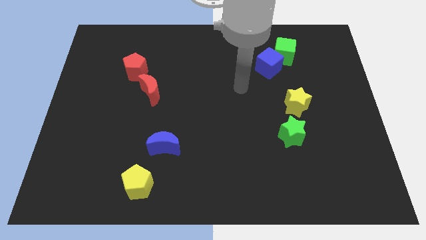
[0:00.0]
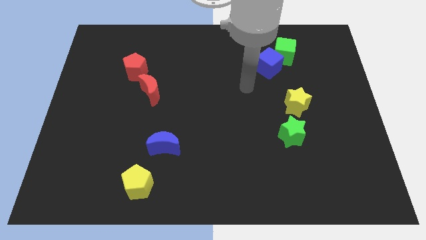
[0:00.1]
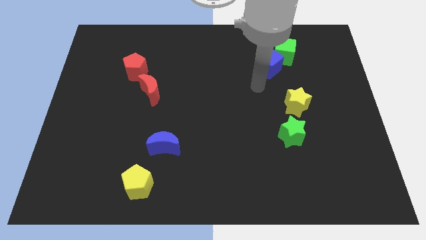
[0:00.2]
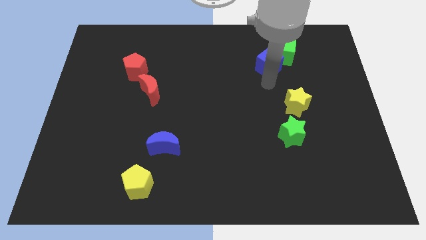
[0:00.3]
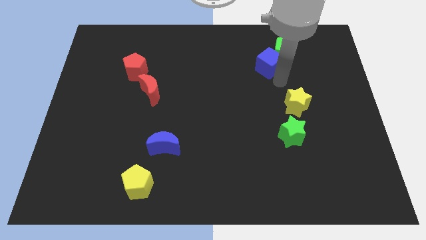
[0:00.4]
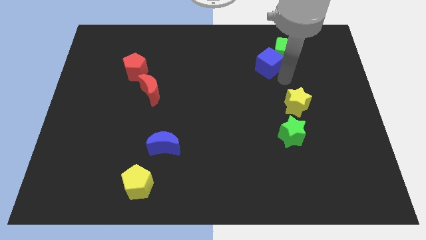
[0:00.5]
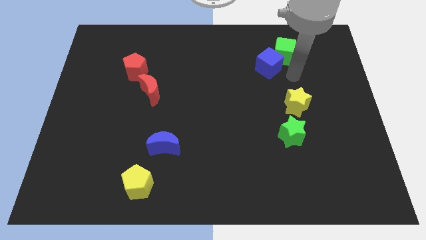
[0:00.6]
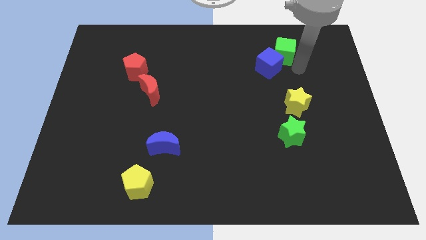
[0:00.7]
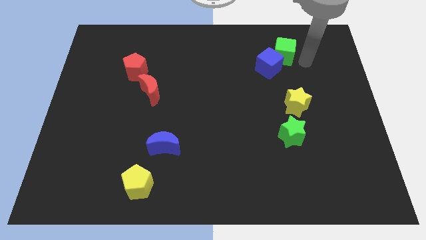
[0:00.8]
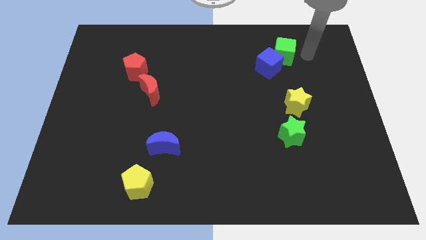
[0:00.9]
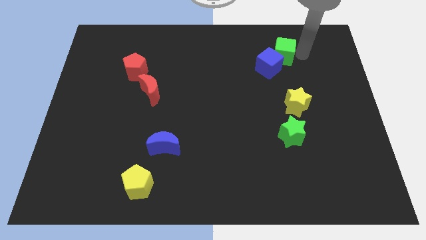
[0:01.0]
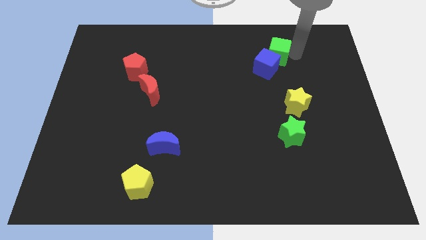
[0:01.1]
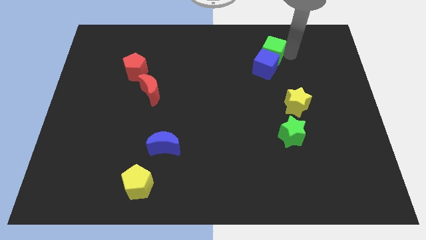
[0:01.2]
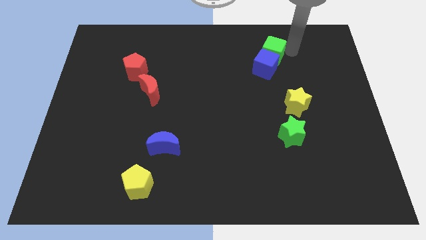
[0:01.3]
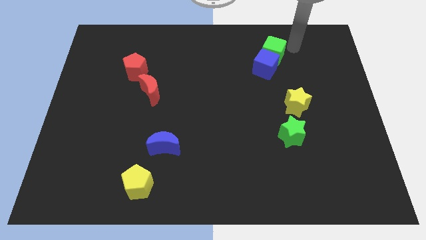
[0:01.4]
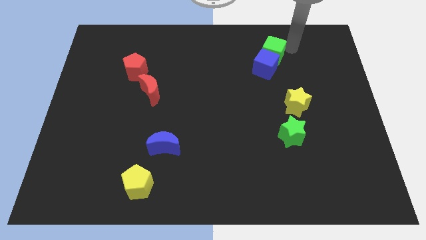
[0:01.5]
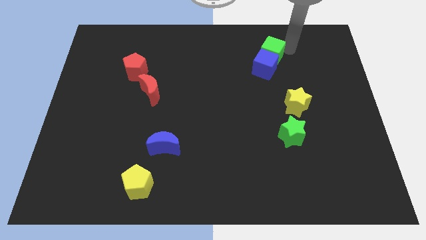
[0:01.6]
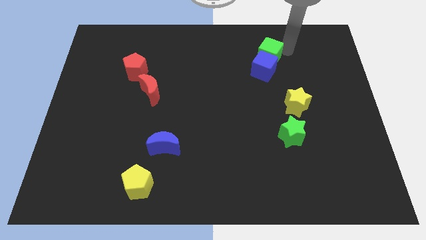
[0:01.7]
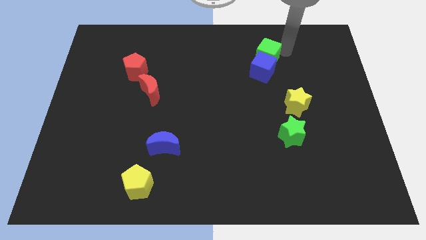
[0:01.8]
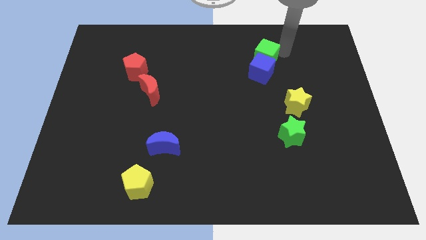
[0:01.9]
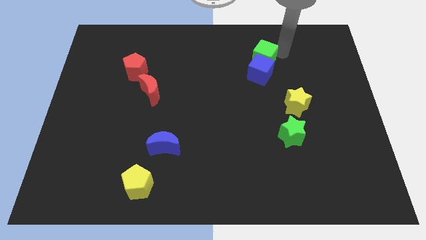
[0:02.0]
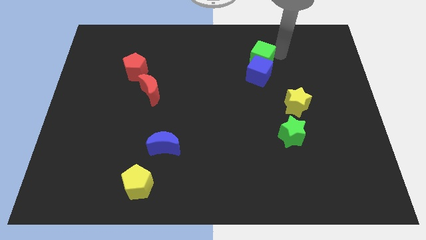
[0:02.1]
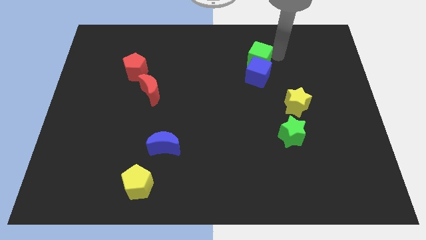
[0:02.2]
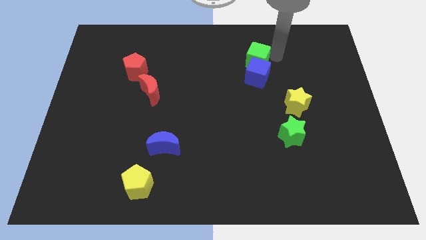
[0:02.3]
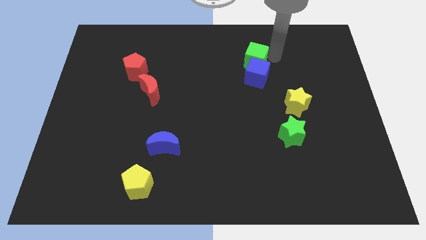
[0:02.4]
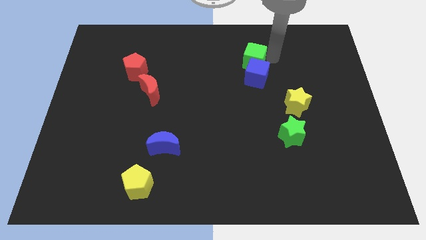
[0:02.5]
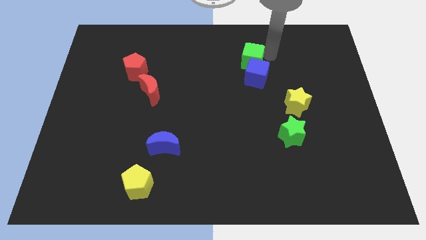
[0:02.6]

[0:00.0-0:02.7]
move the green cube a little bit down and to the left

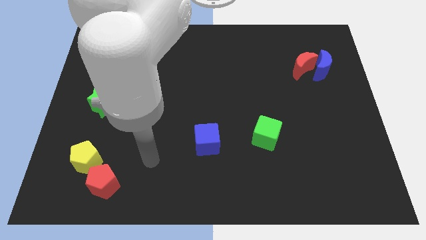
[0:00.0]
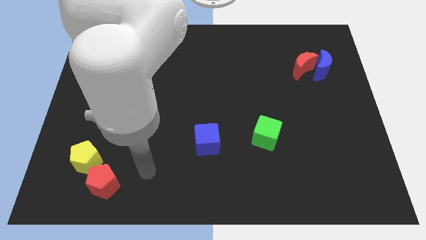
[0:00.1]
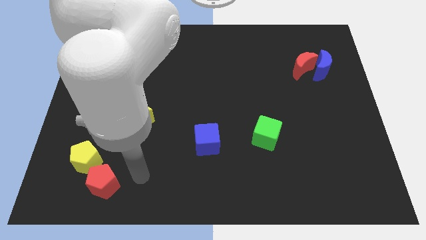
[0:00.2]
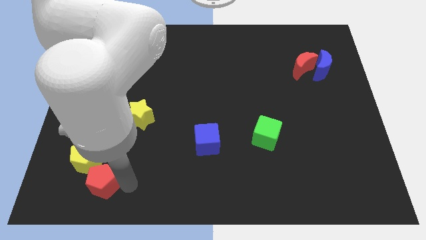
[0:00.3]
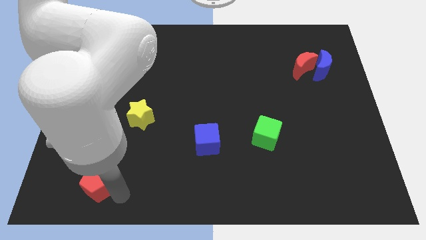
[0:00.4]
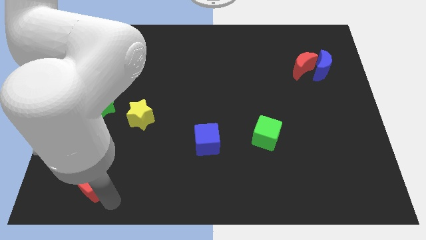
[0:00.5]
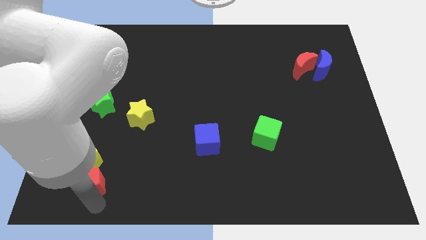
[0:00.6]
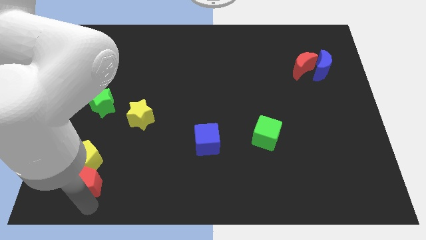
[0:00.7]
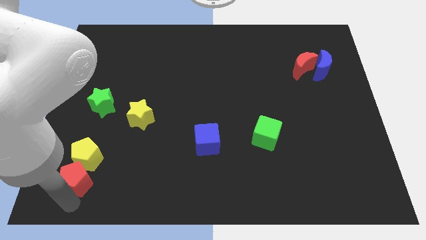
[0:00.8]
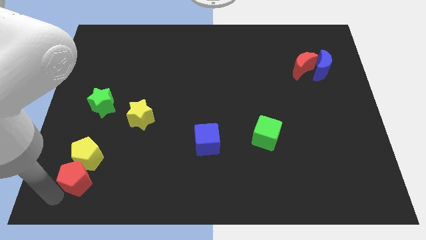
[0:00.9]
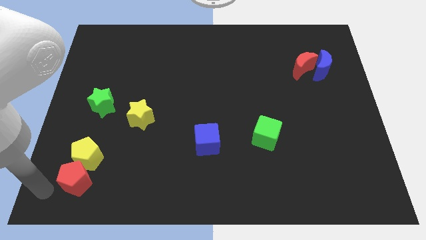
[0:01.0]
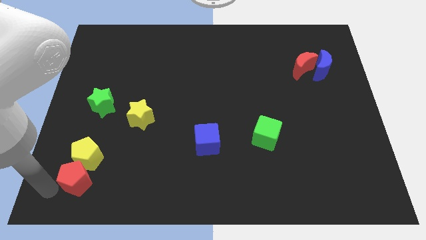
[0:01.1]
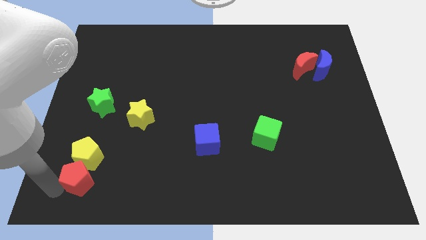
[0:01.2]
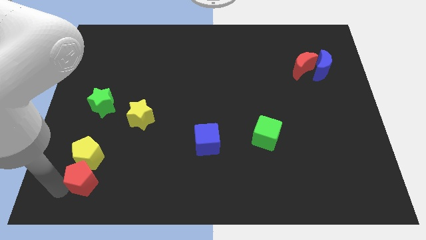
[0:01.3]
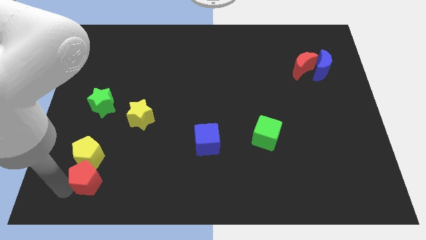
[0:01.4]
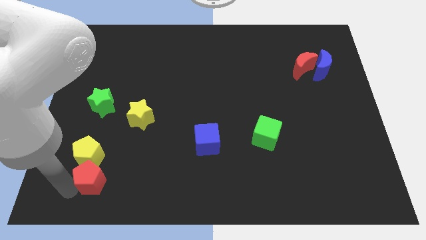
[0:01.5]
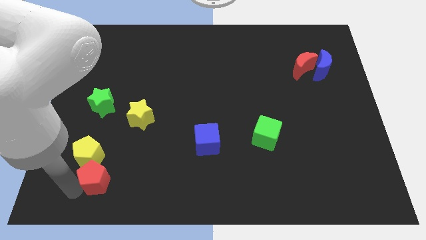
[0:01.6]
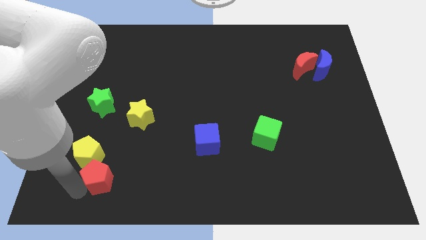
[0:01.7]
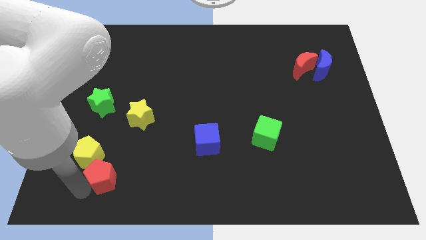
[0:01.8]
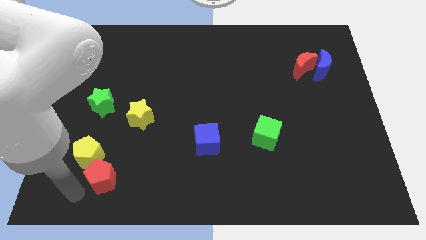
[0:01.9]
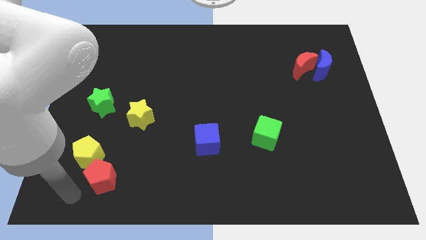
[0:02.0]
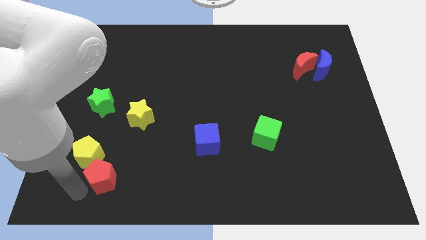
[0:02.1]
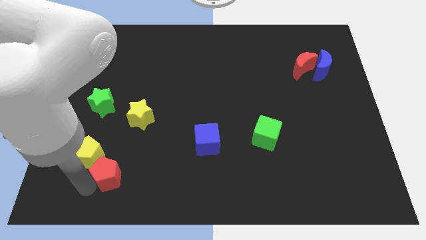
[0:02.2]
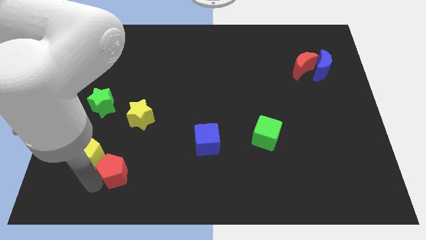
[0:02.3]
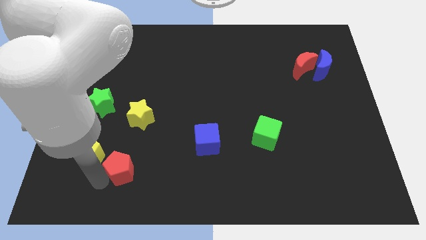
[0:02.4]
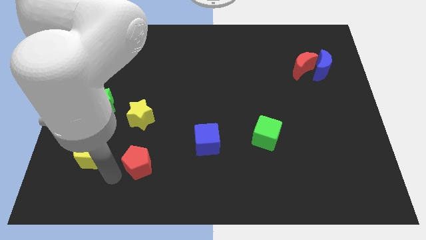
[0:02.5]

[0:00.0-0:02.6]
slightly move the red pentagon up and to the right diagonally

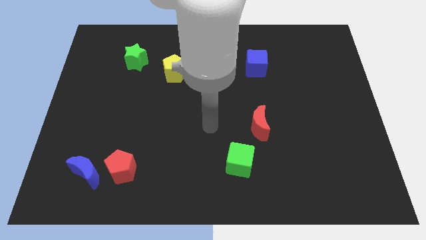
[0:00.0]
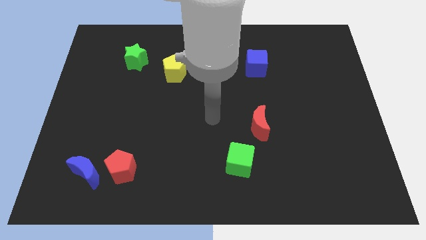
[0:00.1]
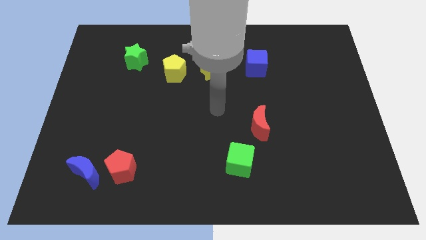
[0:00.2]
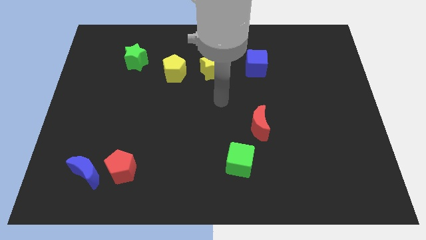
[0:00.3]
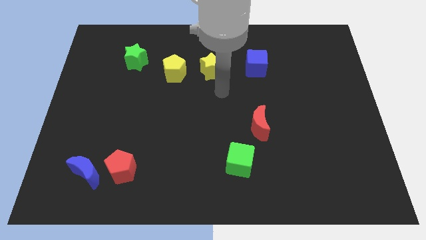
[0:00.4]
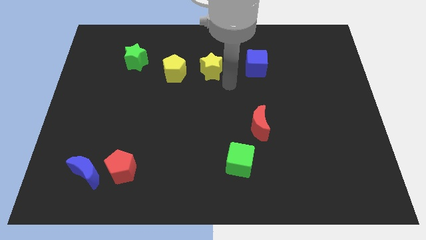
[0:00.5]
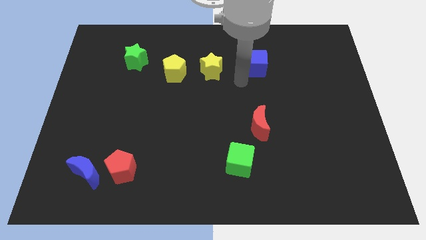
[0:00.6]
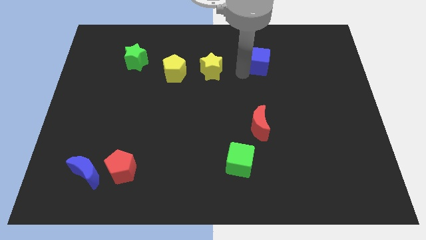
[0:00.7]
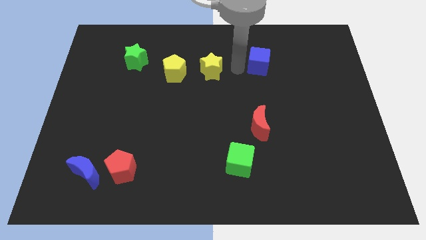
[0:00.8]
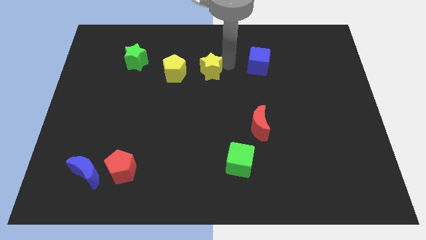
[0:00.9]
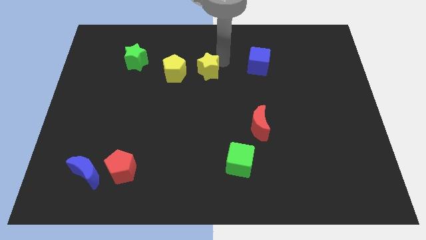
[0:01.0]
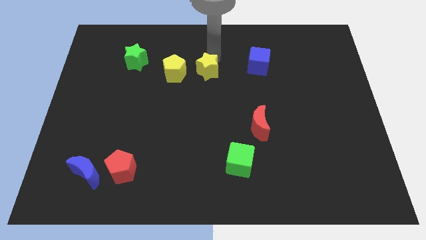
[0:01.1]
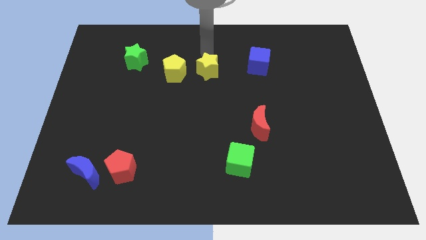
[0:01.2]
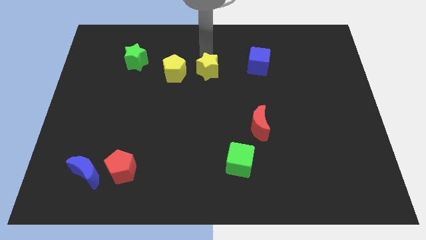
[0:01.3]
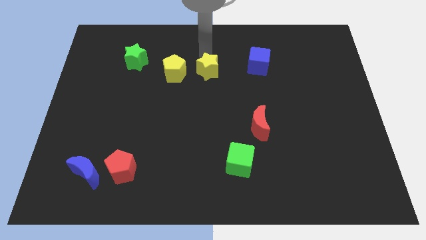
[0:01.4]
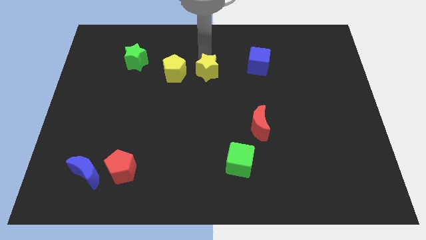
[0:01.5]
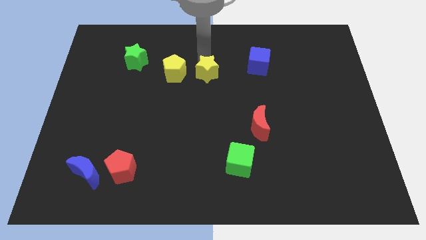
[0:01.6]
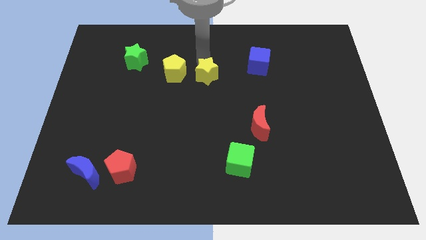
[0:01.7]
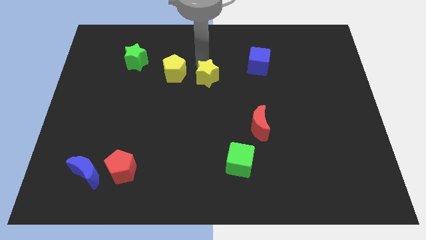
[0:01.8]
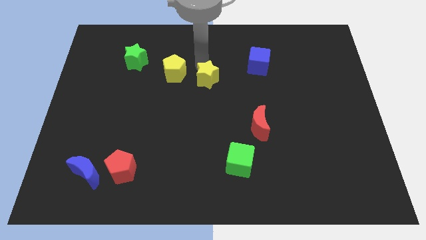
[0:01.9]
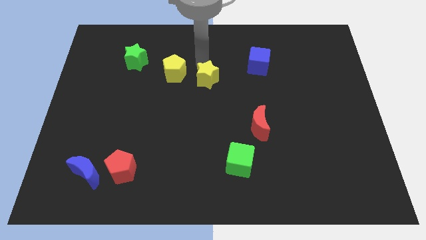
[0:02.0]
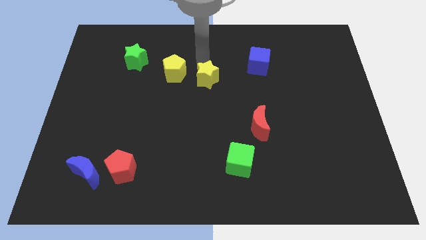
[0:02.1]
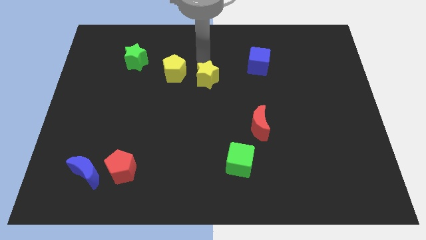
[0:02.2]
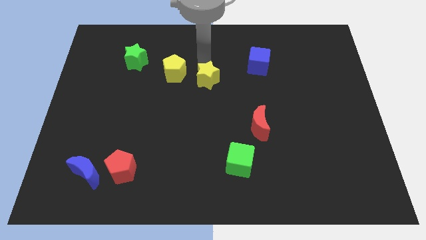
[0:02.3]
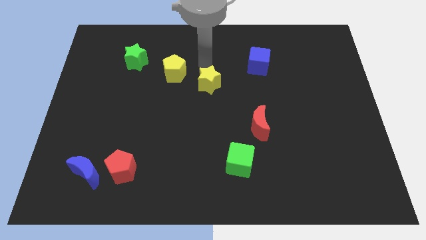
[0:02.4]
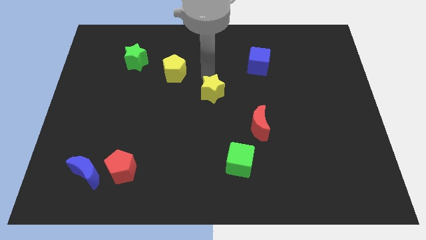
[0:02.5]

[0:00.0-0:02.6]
push the yellow star somewhat down
